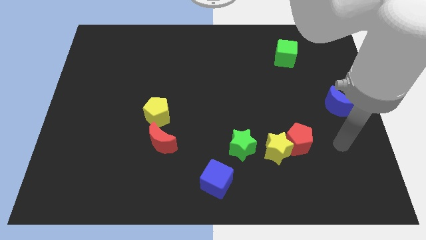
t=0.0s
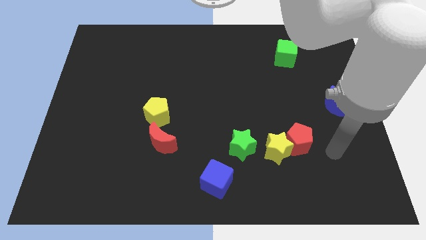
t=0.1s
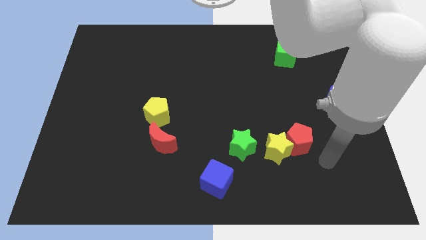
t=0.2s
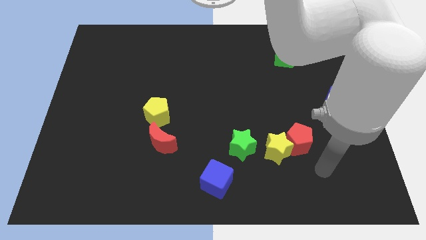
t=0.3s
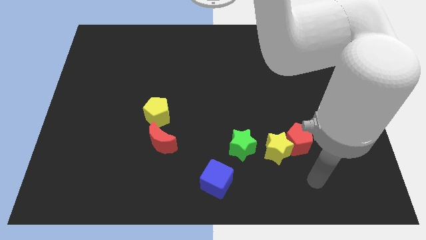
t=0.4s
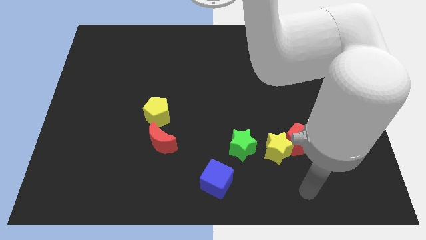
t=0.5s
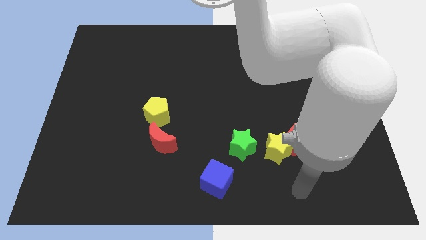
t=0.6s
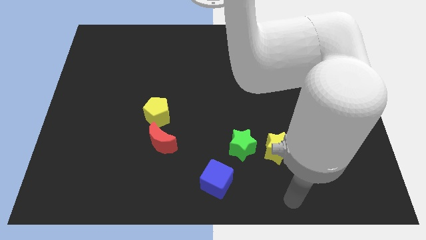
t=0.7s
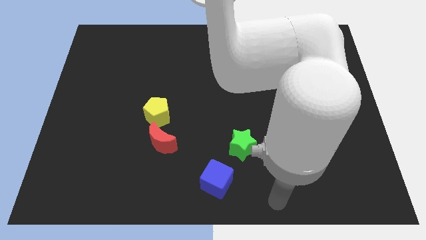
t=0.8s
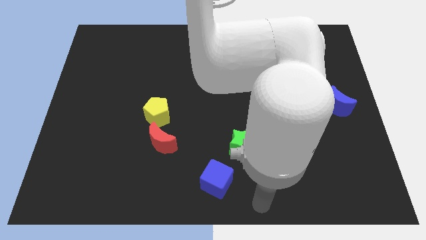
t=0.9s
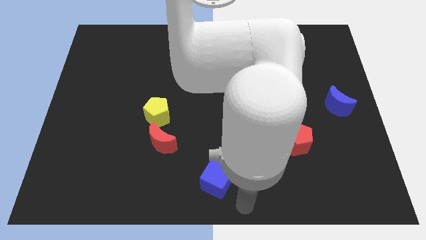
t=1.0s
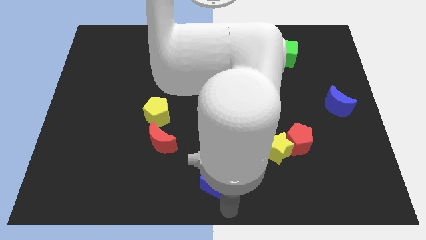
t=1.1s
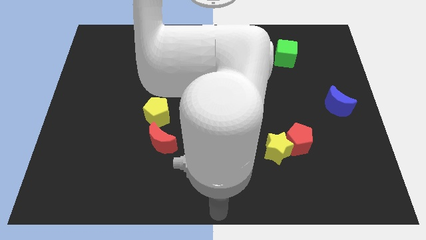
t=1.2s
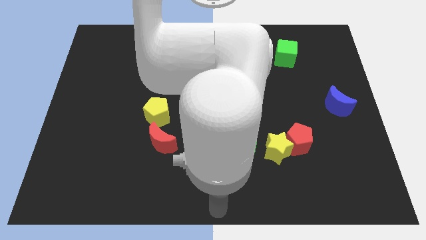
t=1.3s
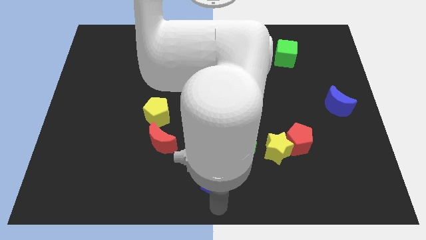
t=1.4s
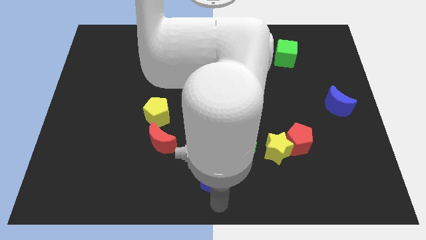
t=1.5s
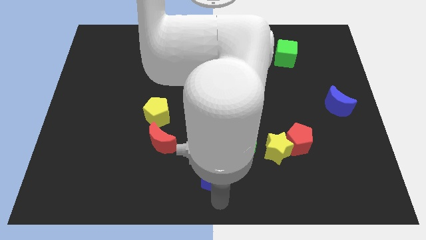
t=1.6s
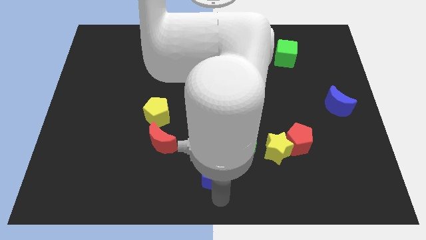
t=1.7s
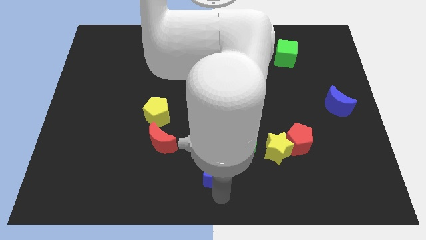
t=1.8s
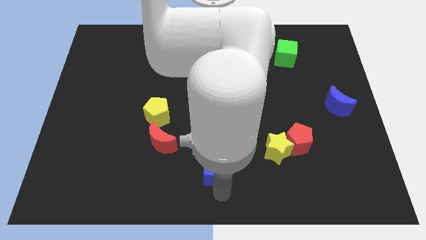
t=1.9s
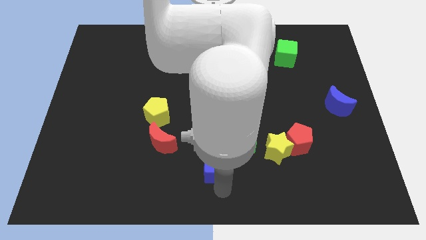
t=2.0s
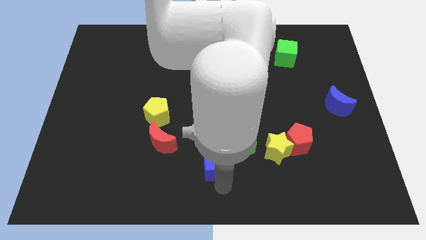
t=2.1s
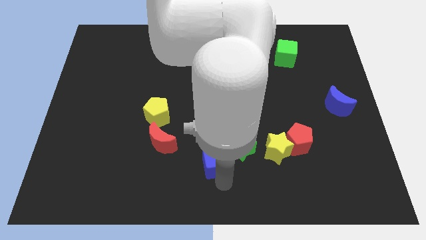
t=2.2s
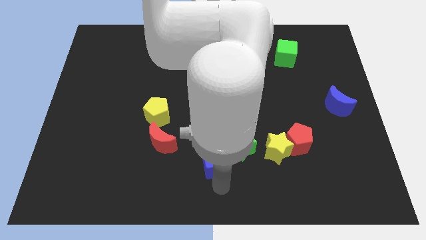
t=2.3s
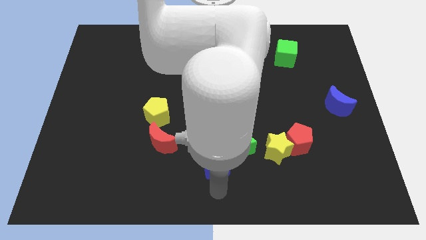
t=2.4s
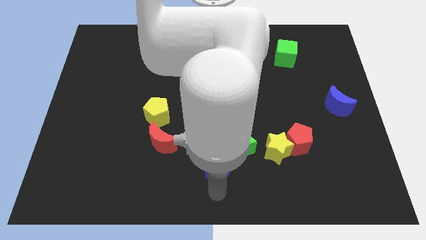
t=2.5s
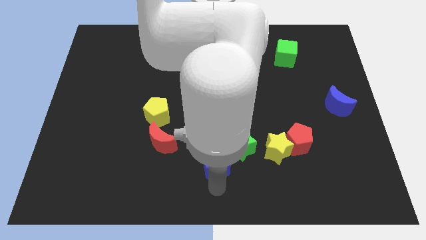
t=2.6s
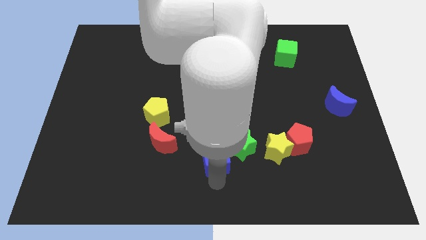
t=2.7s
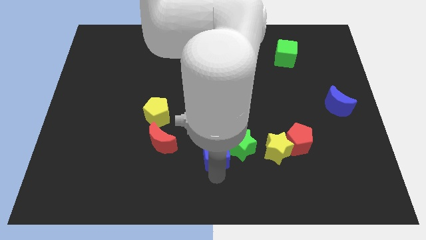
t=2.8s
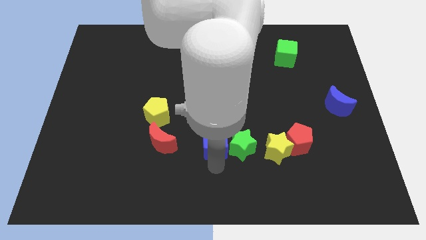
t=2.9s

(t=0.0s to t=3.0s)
slide the blue cube upwards slightly

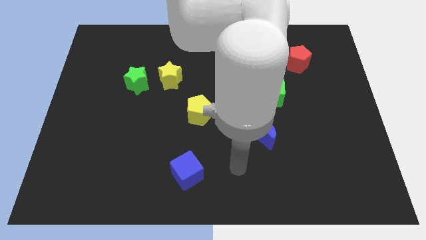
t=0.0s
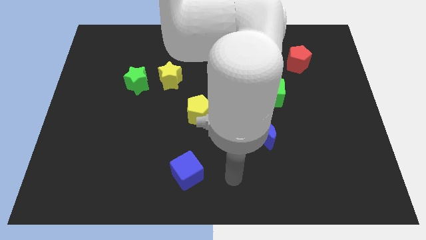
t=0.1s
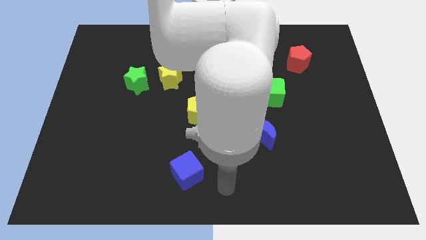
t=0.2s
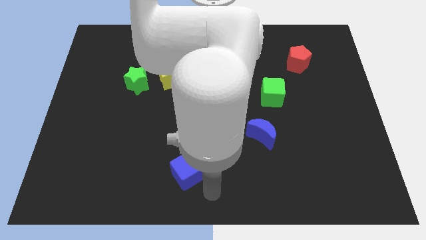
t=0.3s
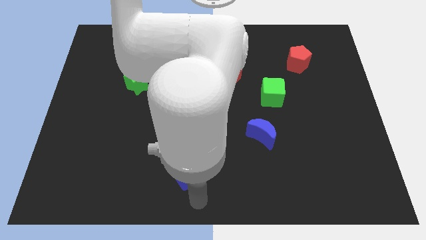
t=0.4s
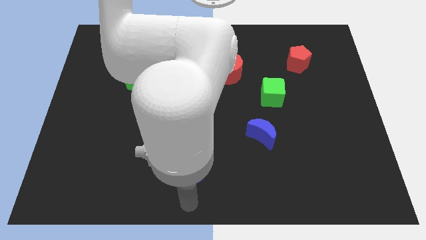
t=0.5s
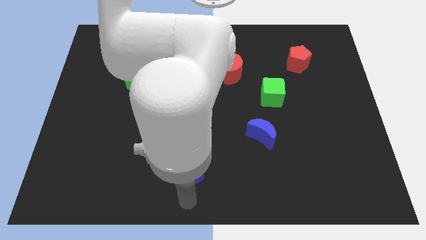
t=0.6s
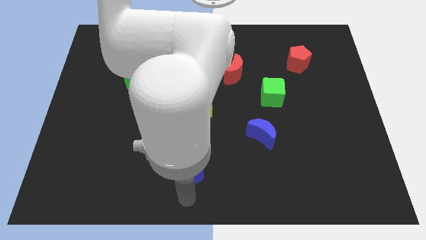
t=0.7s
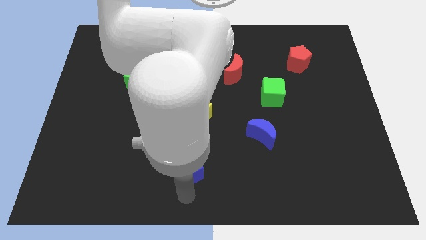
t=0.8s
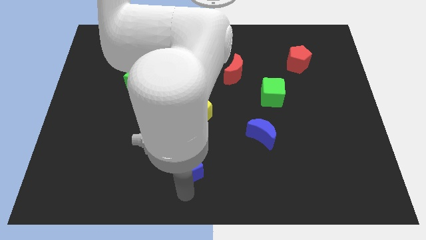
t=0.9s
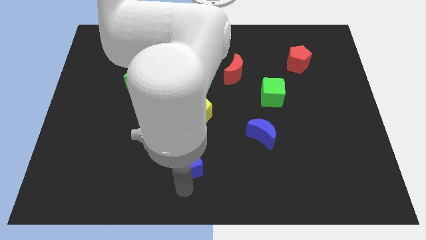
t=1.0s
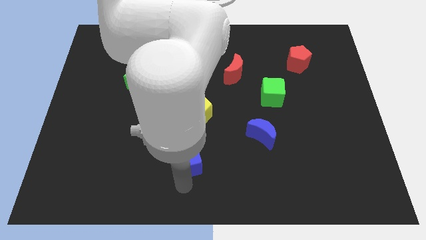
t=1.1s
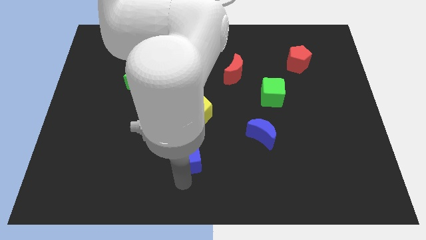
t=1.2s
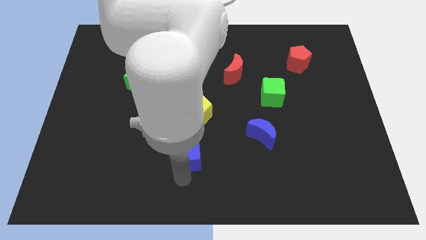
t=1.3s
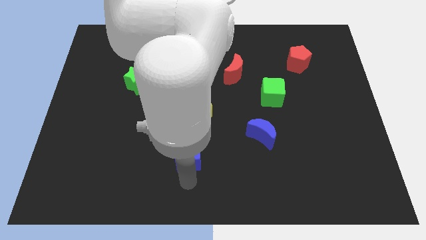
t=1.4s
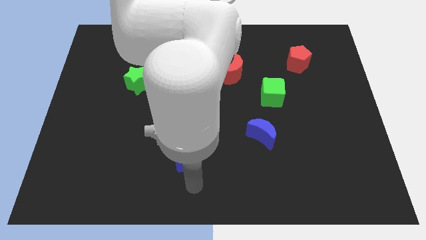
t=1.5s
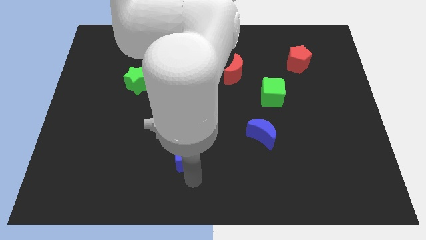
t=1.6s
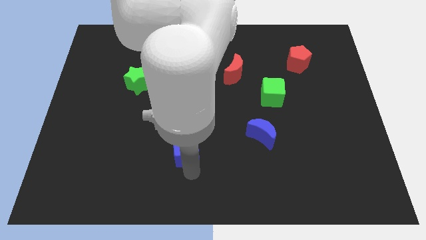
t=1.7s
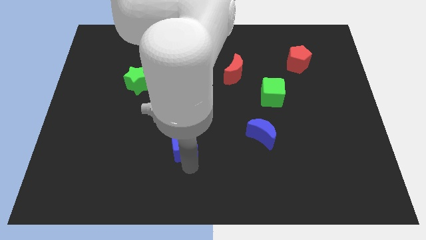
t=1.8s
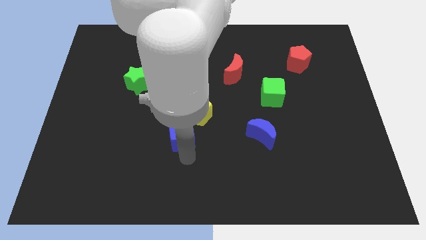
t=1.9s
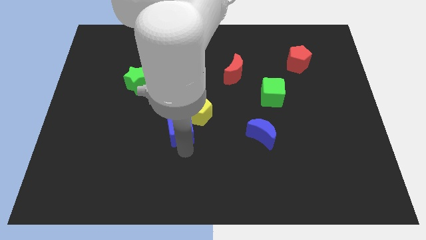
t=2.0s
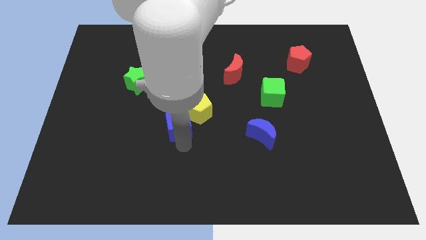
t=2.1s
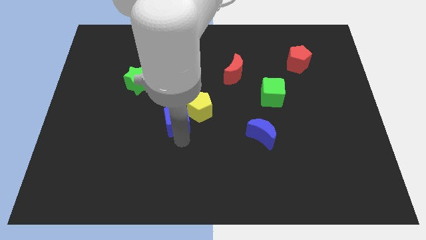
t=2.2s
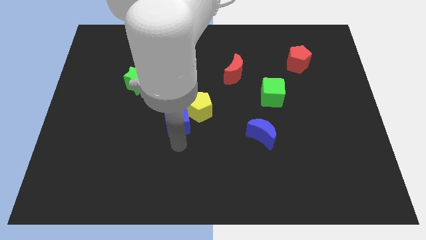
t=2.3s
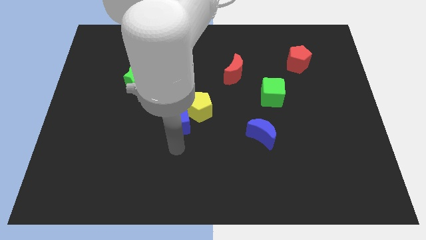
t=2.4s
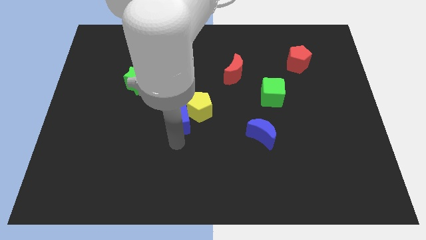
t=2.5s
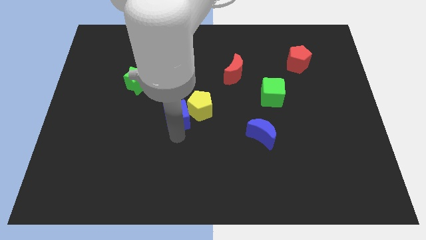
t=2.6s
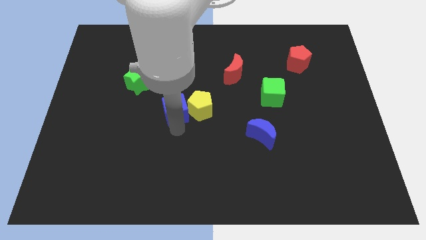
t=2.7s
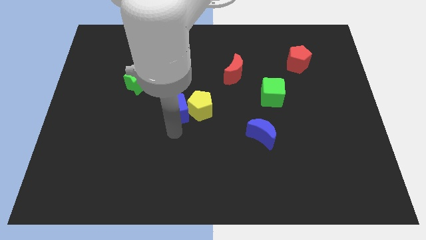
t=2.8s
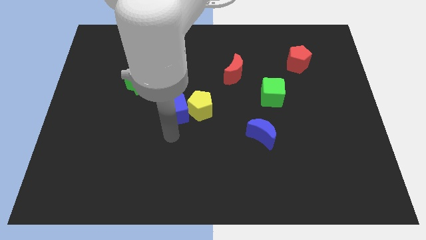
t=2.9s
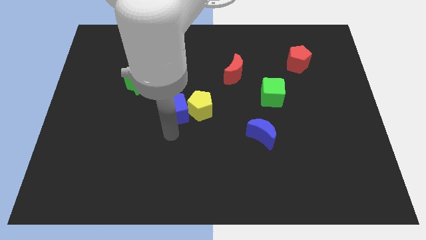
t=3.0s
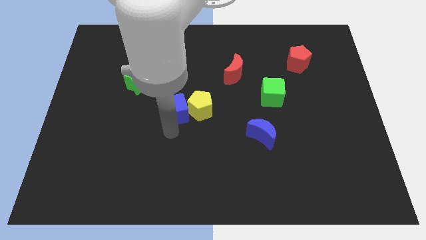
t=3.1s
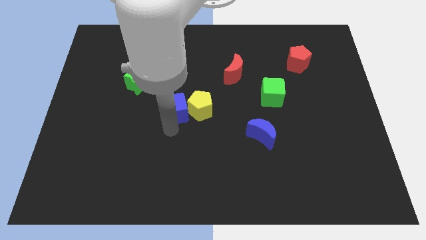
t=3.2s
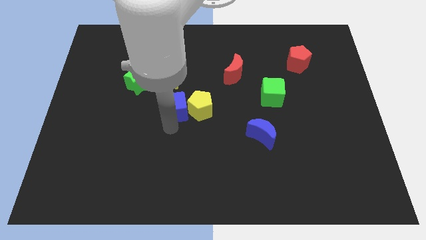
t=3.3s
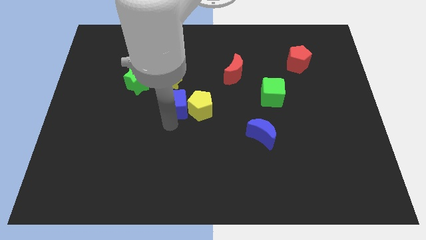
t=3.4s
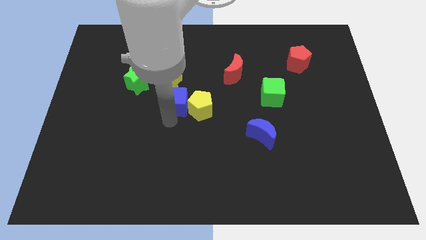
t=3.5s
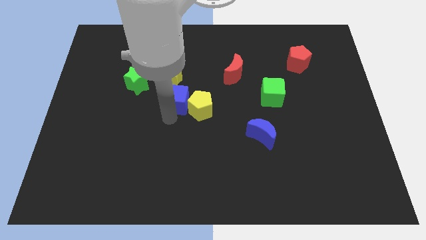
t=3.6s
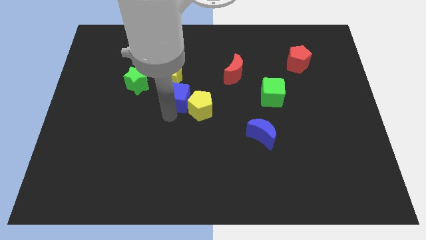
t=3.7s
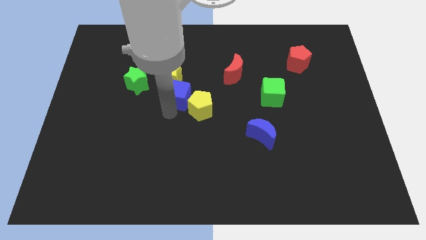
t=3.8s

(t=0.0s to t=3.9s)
move the blue cube upwards

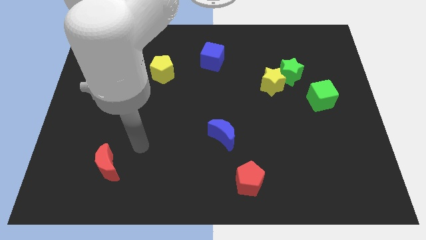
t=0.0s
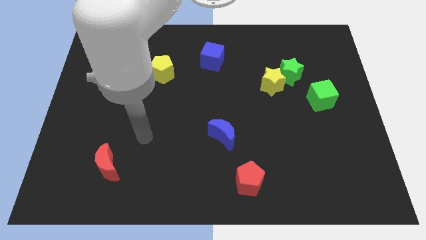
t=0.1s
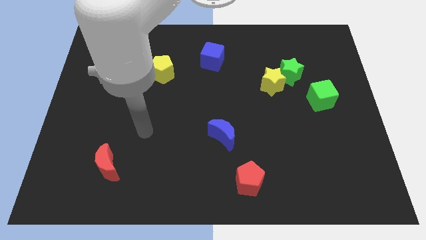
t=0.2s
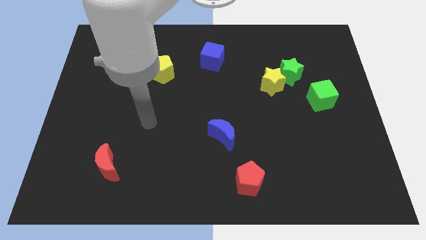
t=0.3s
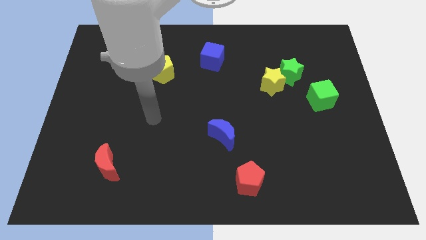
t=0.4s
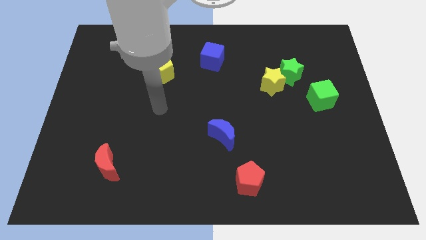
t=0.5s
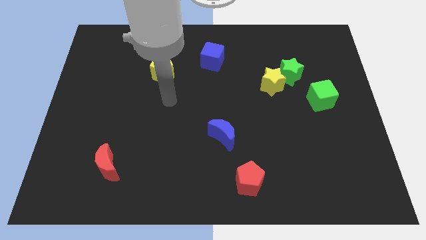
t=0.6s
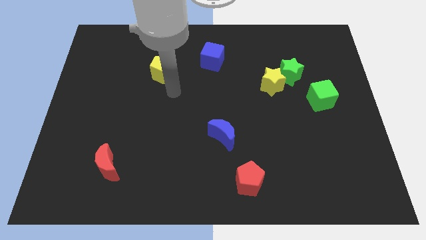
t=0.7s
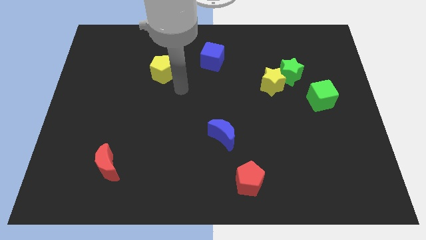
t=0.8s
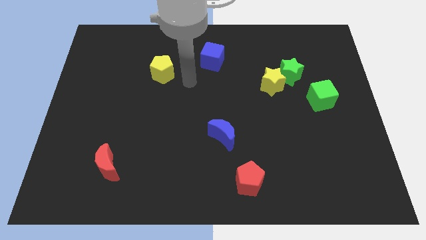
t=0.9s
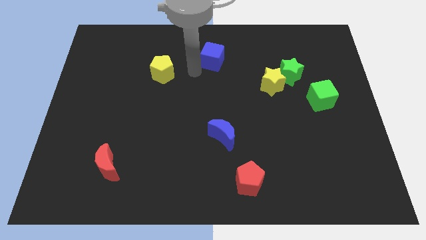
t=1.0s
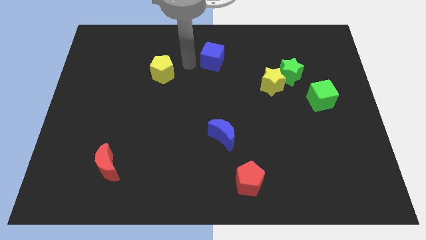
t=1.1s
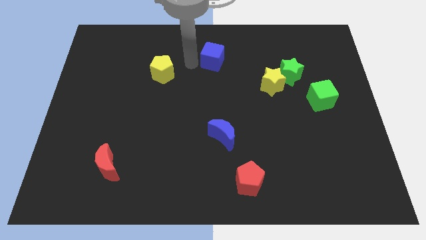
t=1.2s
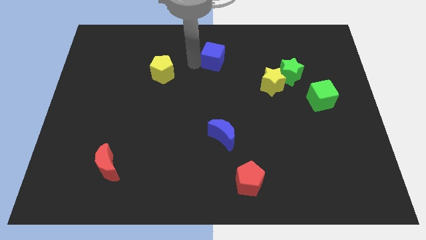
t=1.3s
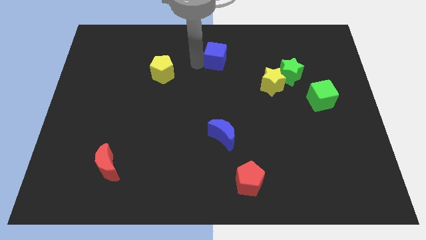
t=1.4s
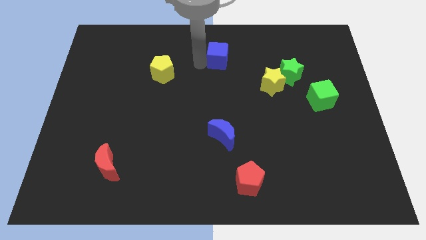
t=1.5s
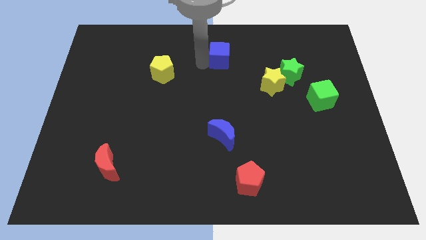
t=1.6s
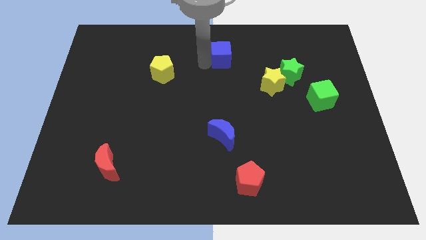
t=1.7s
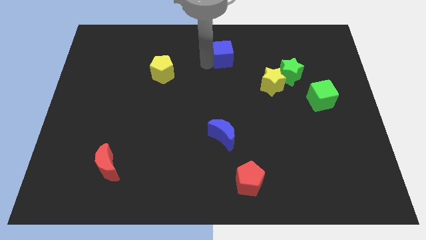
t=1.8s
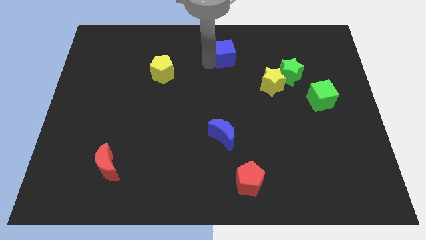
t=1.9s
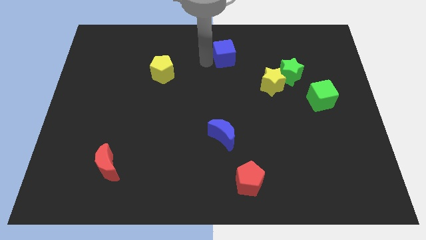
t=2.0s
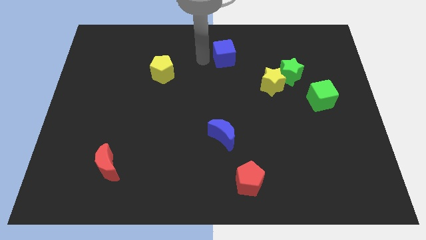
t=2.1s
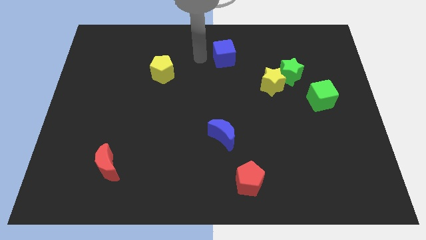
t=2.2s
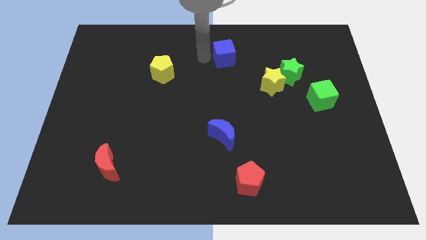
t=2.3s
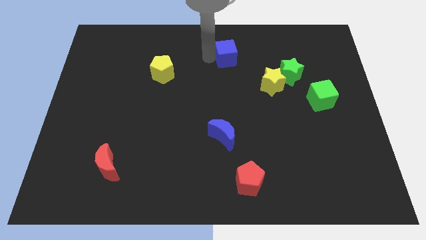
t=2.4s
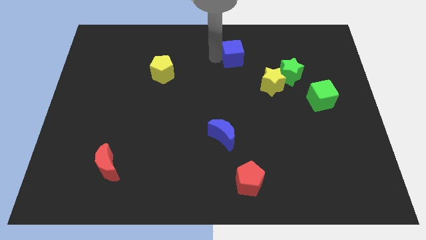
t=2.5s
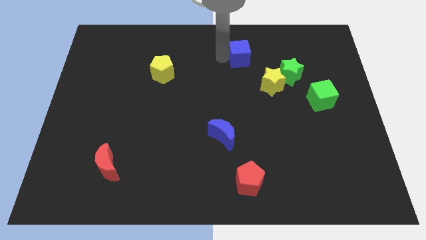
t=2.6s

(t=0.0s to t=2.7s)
move the blue cube a bit to the right
